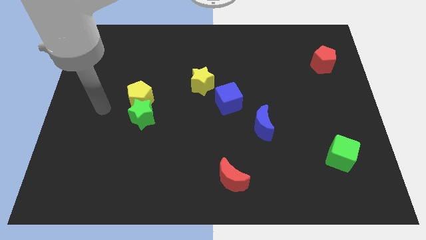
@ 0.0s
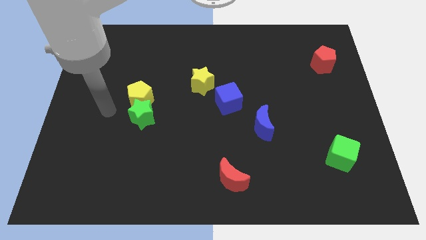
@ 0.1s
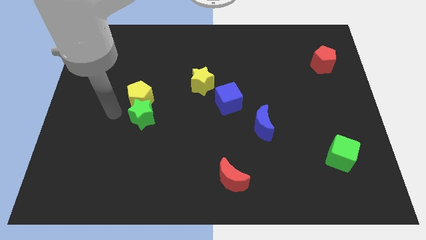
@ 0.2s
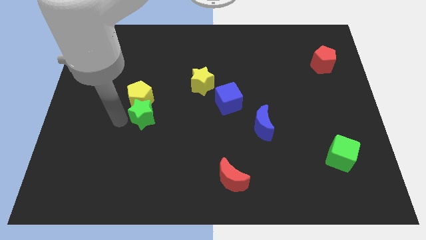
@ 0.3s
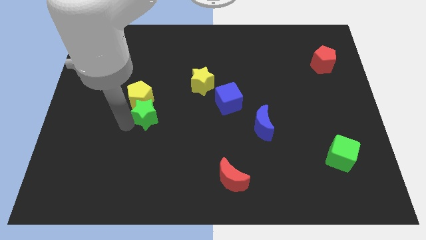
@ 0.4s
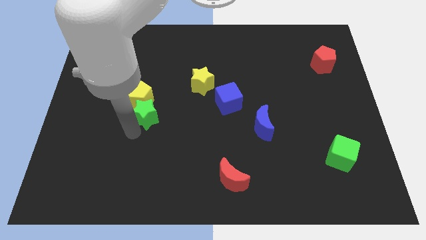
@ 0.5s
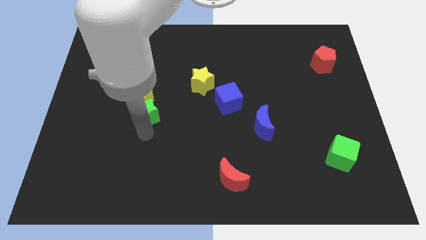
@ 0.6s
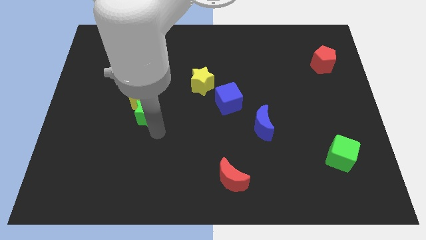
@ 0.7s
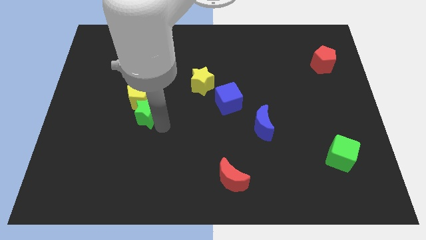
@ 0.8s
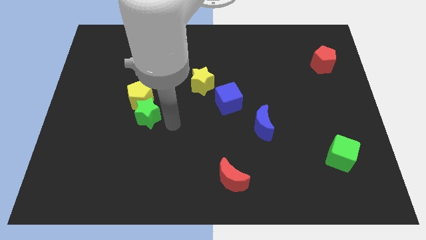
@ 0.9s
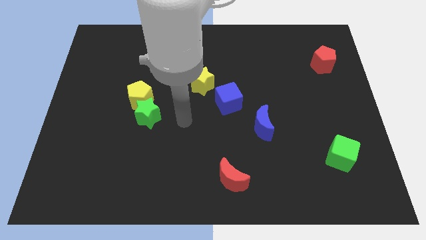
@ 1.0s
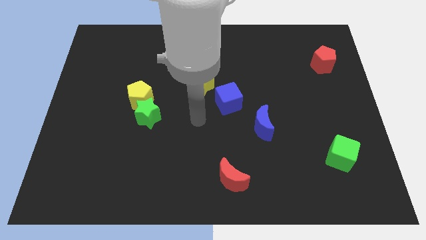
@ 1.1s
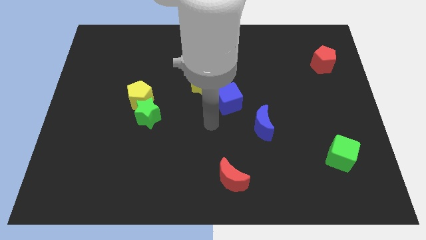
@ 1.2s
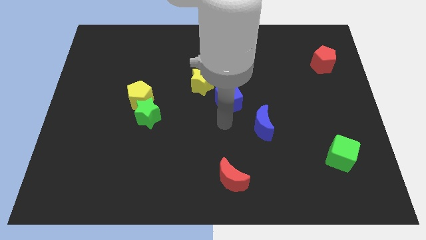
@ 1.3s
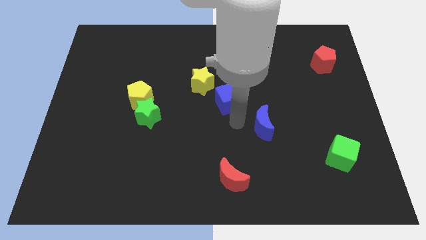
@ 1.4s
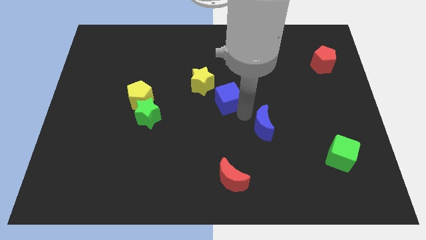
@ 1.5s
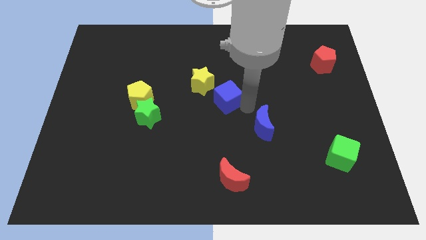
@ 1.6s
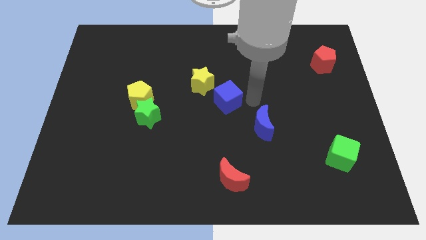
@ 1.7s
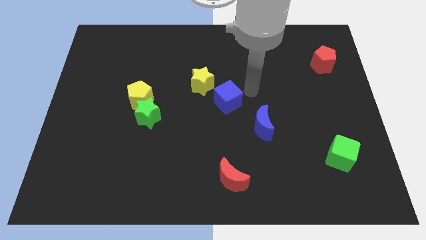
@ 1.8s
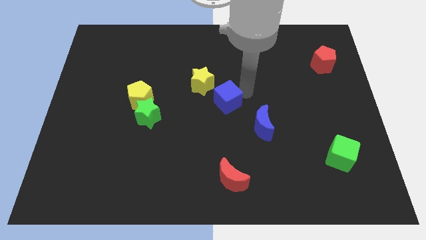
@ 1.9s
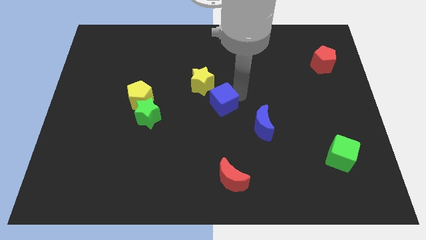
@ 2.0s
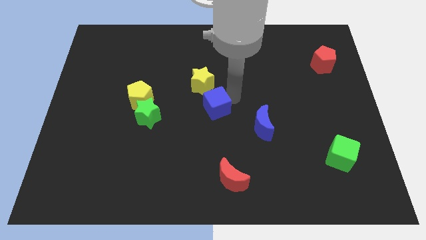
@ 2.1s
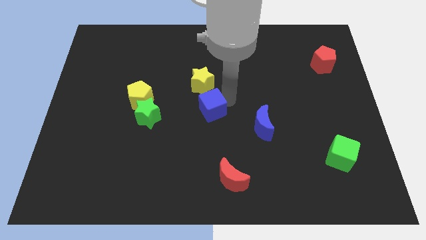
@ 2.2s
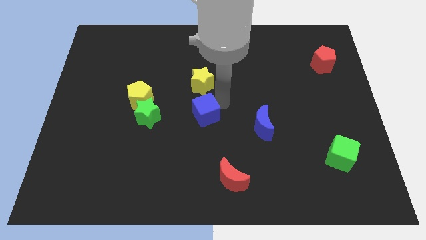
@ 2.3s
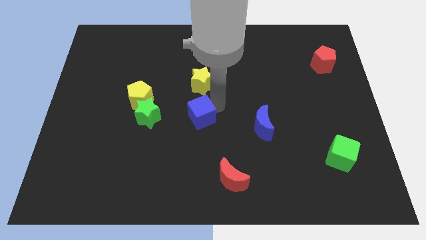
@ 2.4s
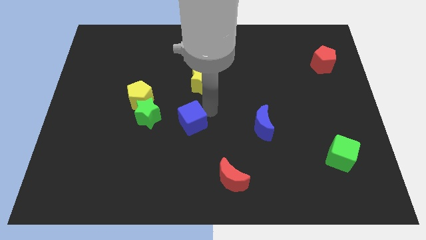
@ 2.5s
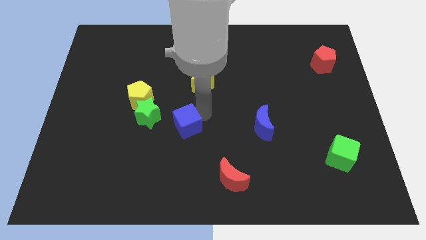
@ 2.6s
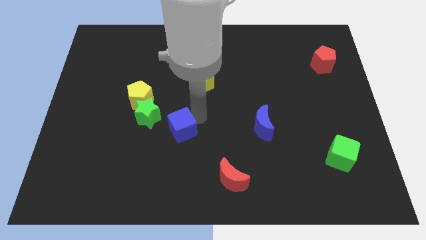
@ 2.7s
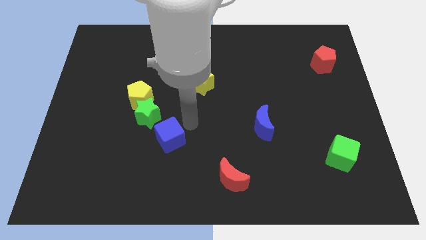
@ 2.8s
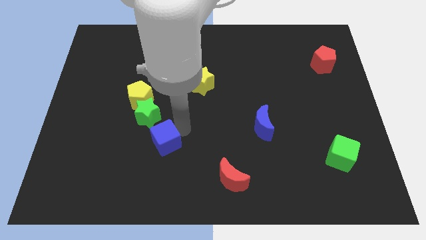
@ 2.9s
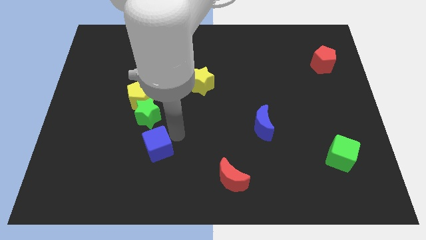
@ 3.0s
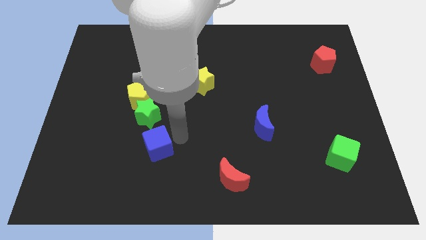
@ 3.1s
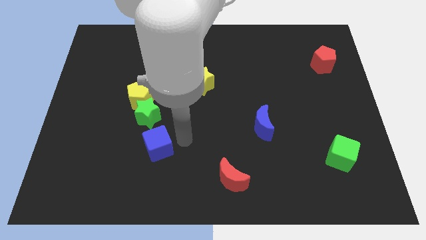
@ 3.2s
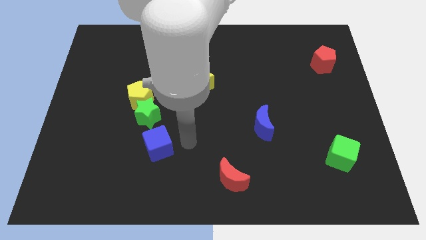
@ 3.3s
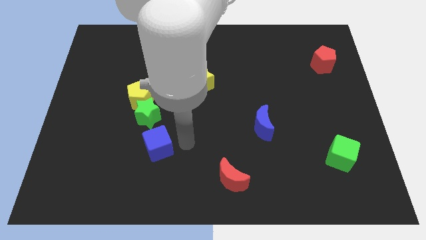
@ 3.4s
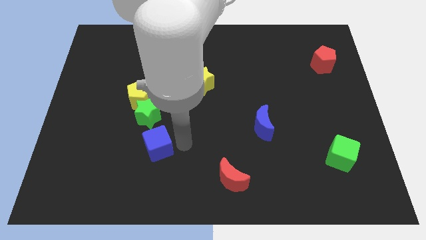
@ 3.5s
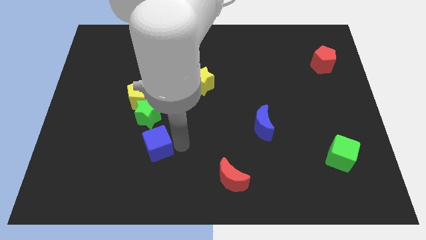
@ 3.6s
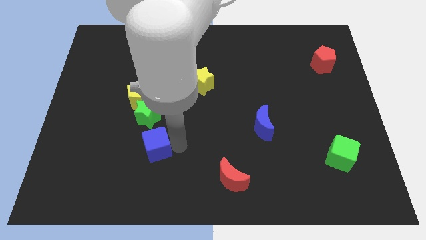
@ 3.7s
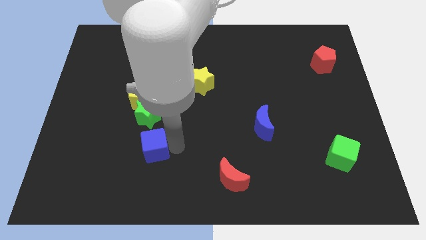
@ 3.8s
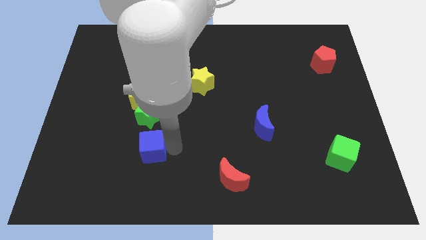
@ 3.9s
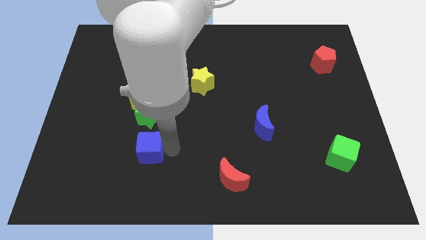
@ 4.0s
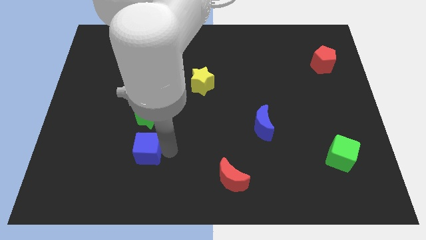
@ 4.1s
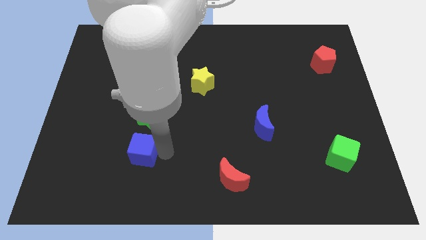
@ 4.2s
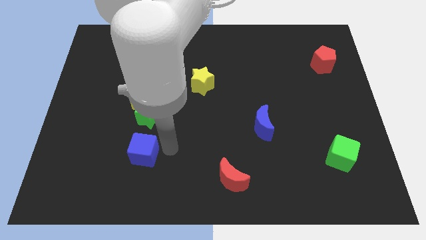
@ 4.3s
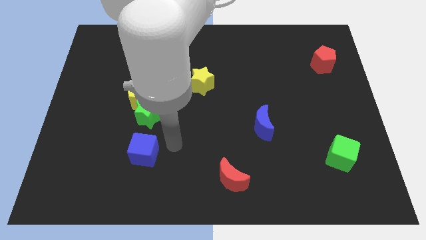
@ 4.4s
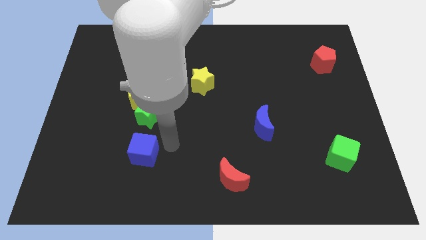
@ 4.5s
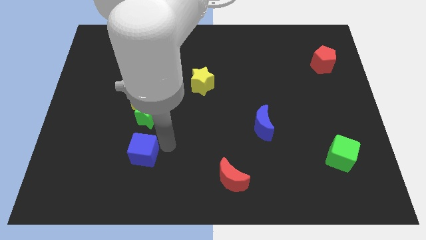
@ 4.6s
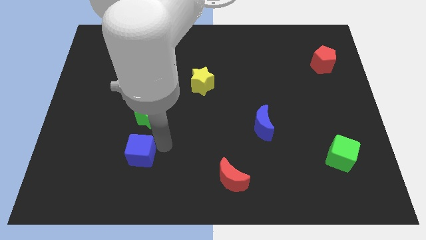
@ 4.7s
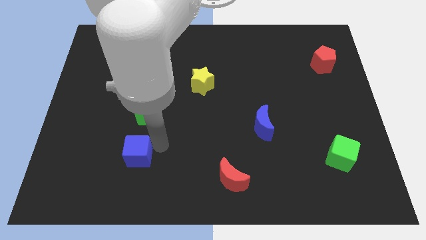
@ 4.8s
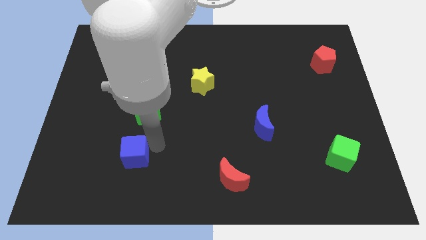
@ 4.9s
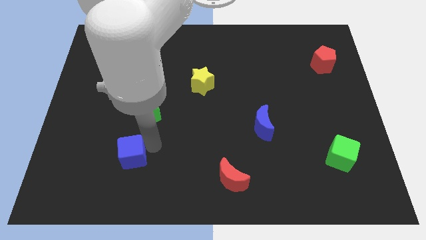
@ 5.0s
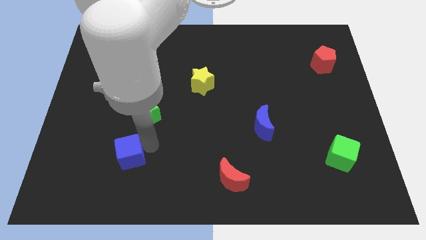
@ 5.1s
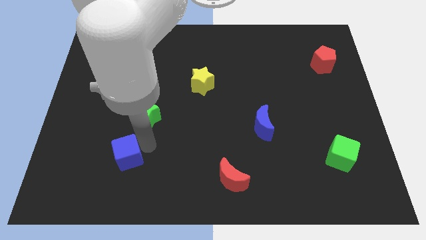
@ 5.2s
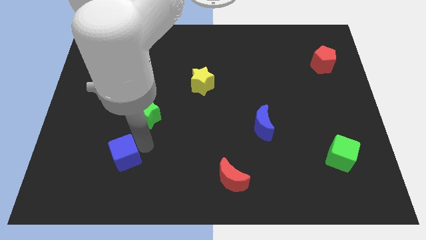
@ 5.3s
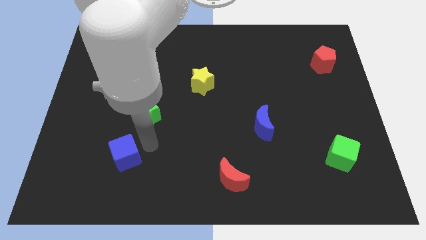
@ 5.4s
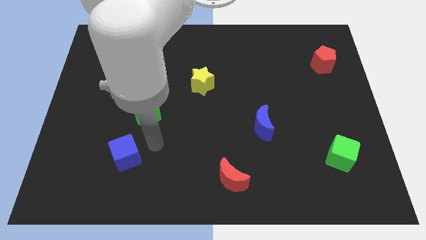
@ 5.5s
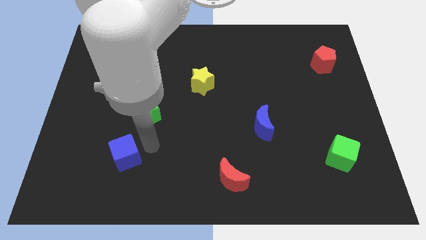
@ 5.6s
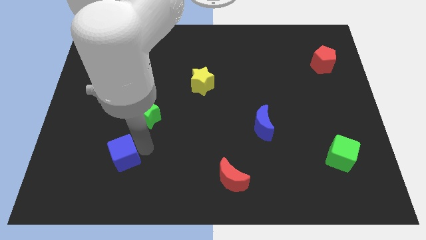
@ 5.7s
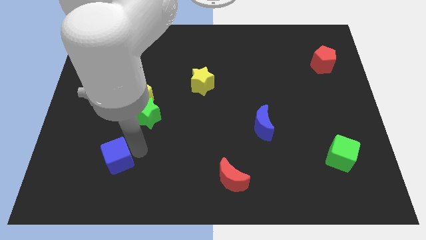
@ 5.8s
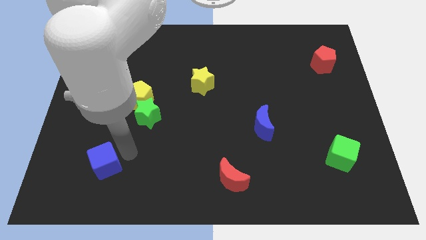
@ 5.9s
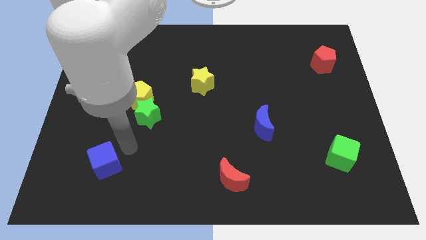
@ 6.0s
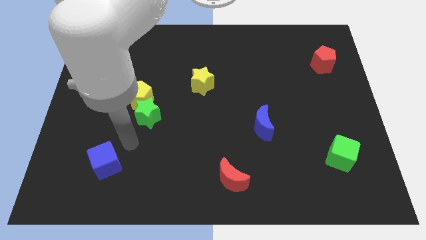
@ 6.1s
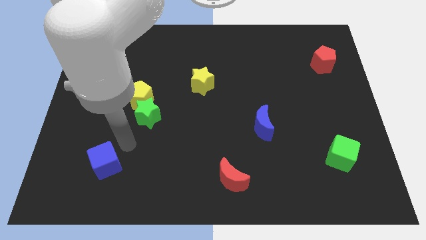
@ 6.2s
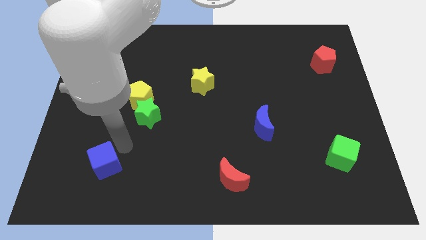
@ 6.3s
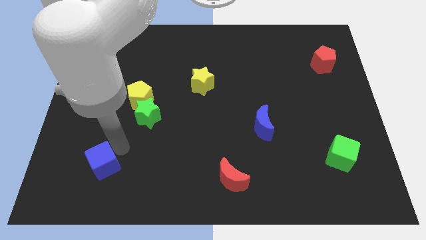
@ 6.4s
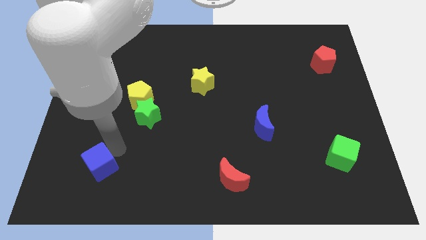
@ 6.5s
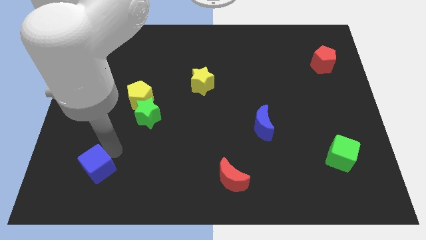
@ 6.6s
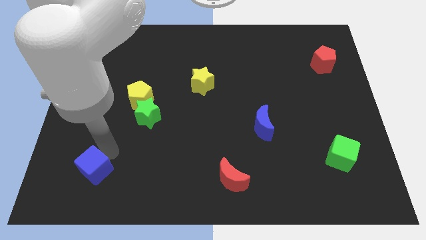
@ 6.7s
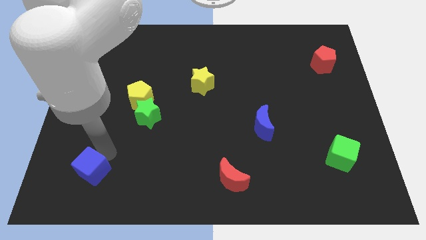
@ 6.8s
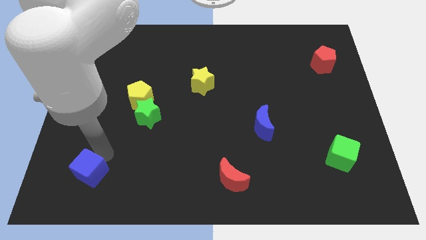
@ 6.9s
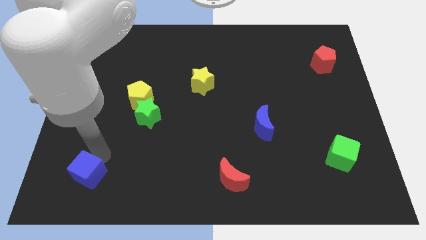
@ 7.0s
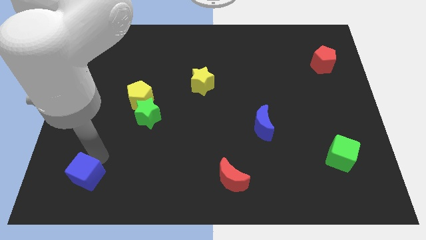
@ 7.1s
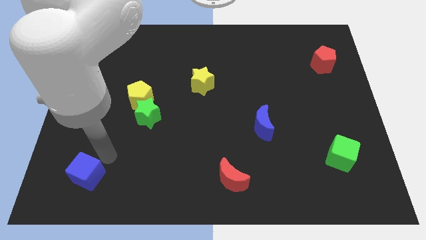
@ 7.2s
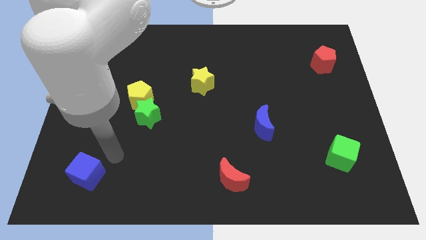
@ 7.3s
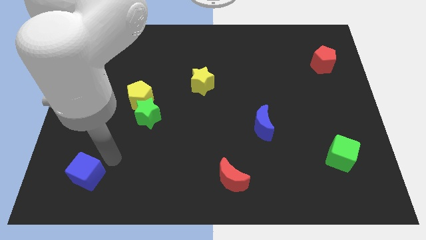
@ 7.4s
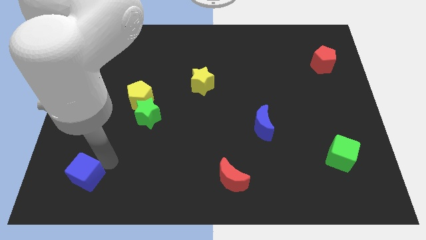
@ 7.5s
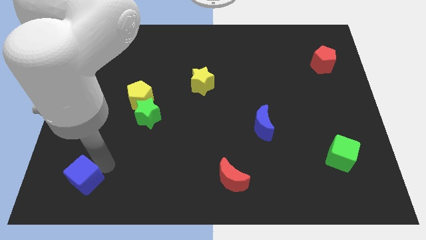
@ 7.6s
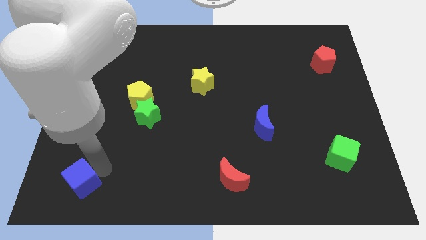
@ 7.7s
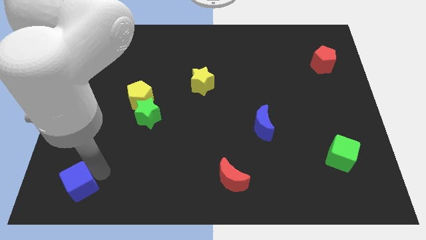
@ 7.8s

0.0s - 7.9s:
slide the blue cube to the bottom left

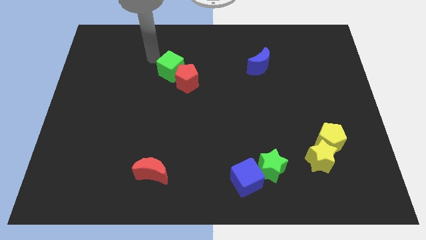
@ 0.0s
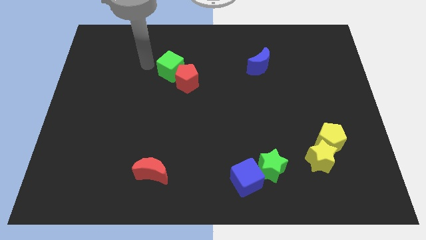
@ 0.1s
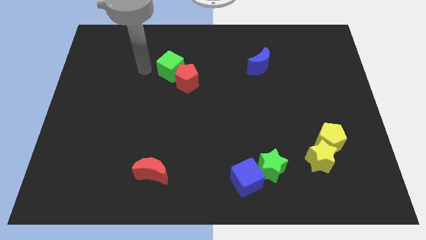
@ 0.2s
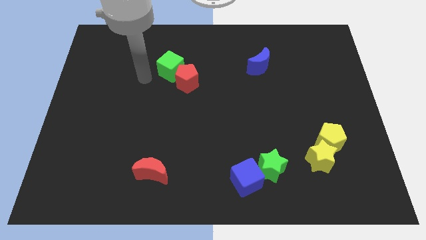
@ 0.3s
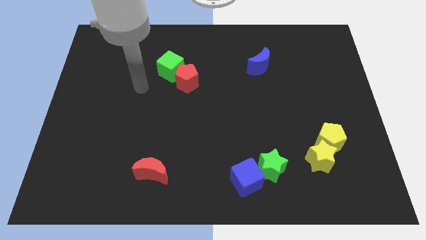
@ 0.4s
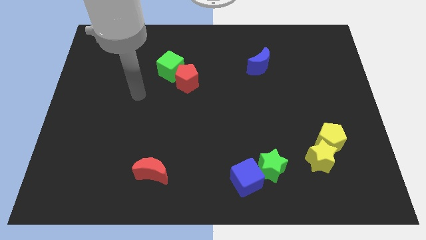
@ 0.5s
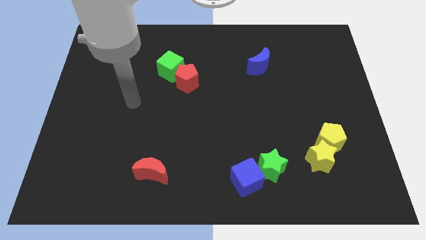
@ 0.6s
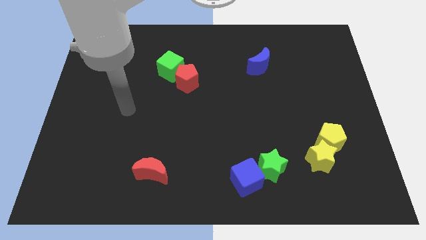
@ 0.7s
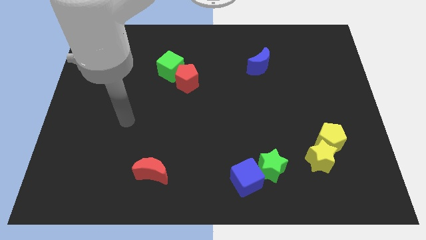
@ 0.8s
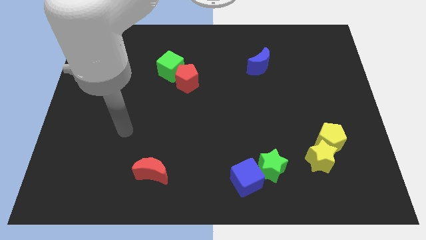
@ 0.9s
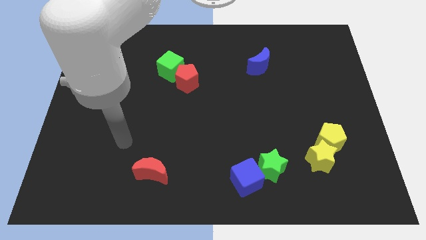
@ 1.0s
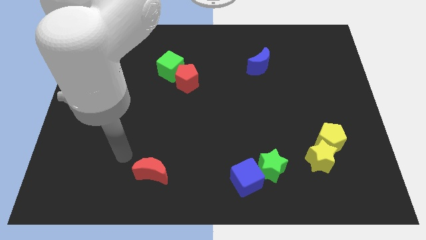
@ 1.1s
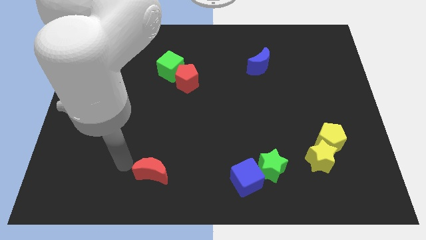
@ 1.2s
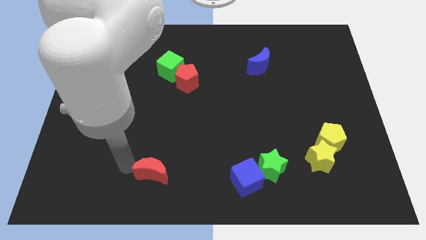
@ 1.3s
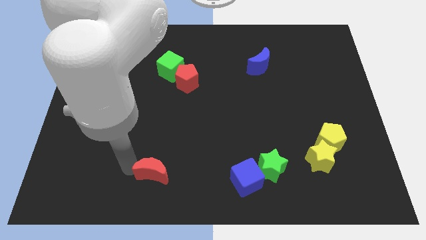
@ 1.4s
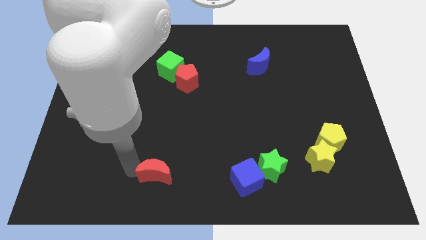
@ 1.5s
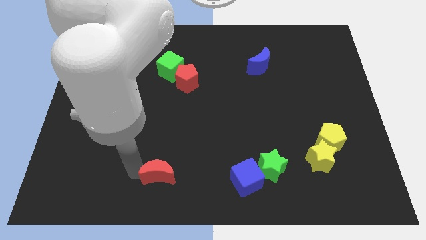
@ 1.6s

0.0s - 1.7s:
slide the red moon to the bottom
